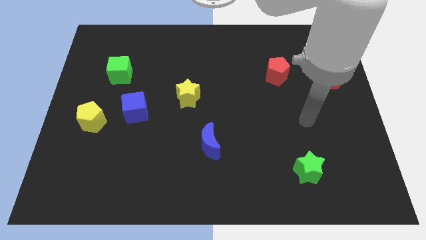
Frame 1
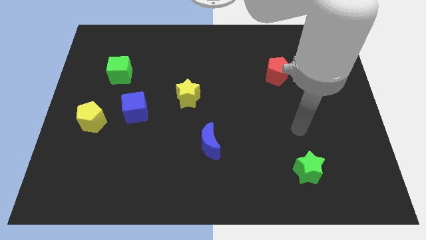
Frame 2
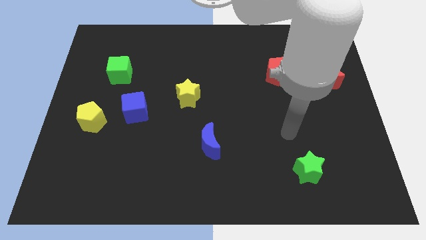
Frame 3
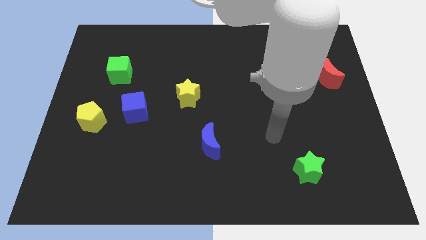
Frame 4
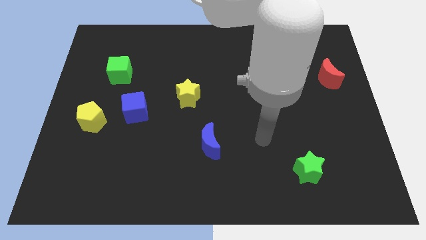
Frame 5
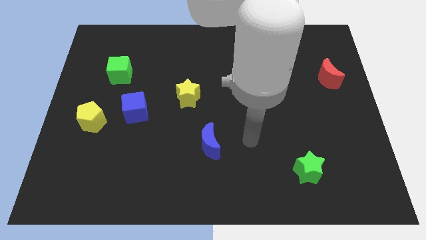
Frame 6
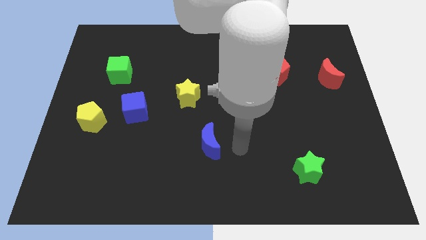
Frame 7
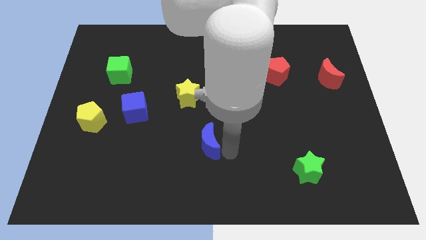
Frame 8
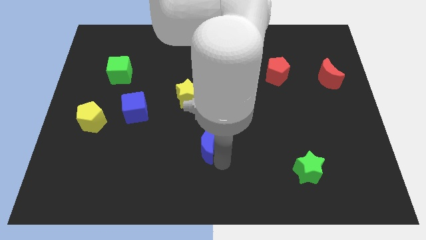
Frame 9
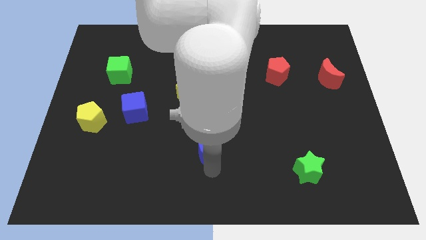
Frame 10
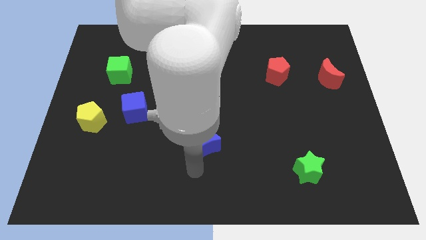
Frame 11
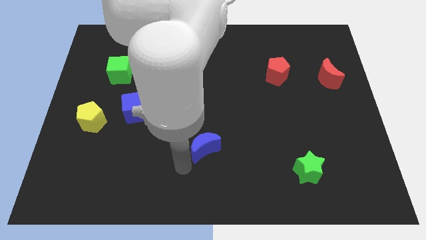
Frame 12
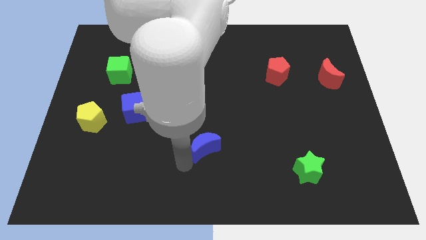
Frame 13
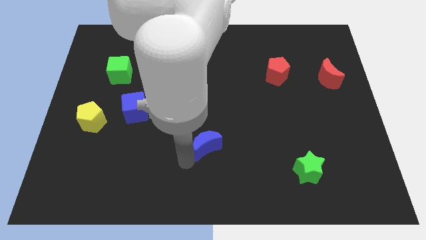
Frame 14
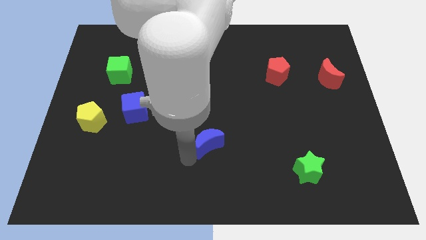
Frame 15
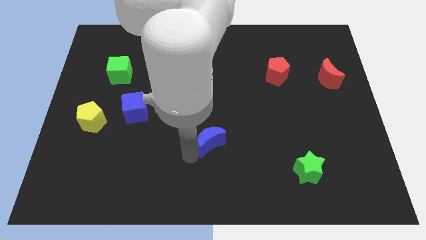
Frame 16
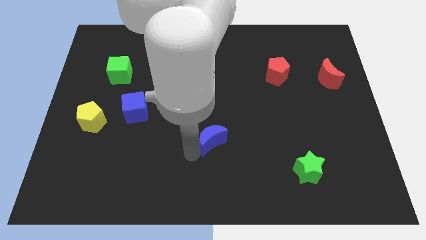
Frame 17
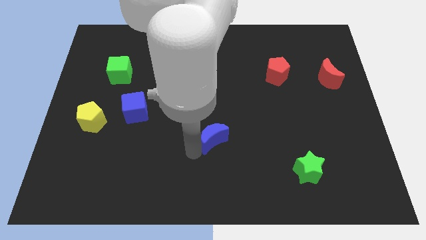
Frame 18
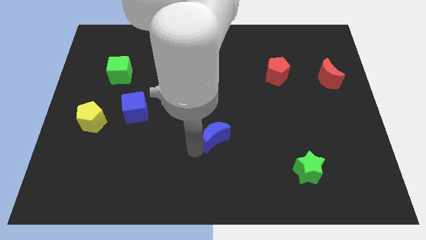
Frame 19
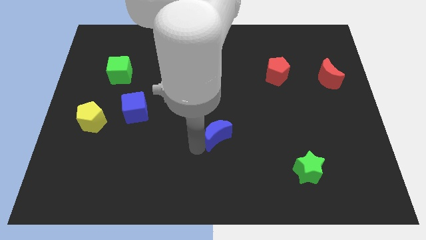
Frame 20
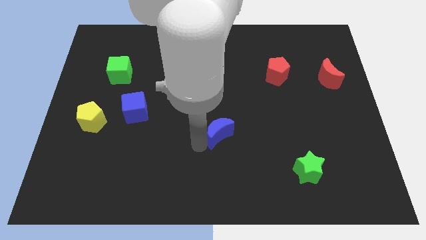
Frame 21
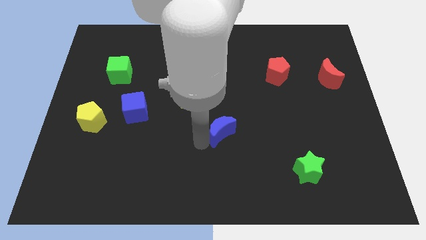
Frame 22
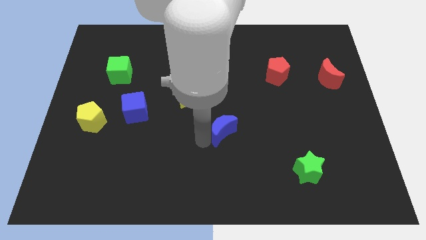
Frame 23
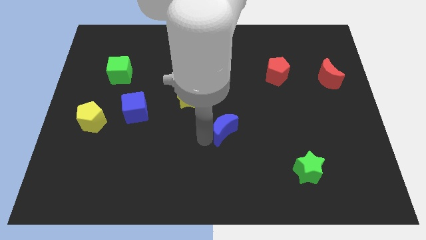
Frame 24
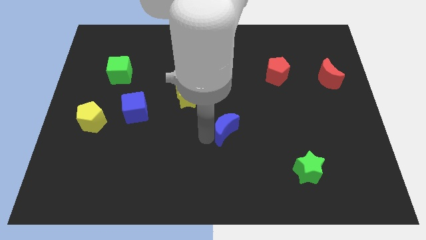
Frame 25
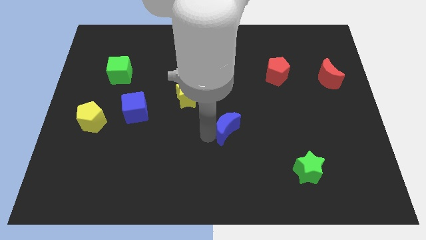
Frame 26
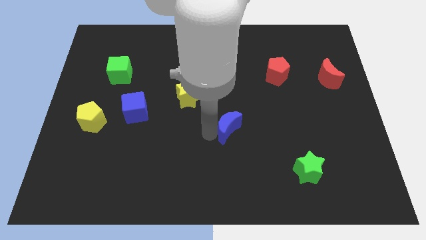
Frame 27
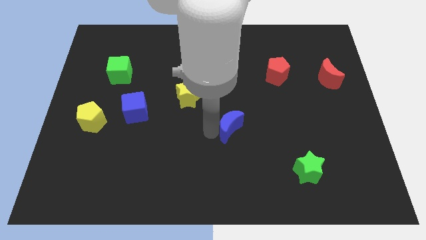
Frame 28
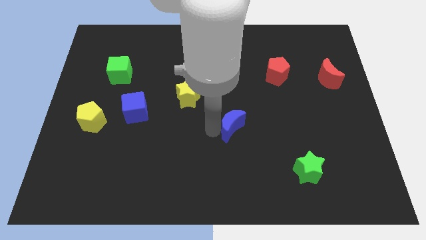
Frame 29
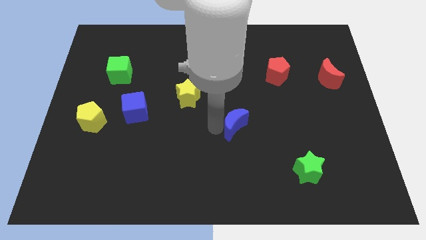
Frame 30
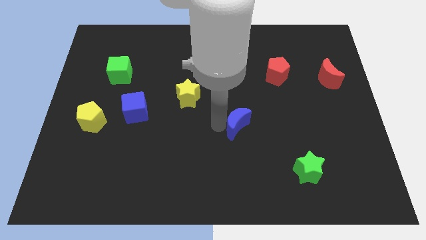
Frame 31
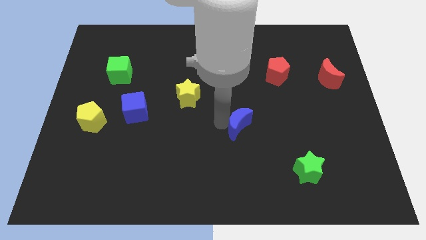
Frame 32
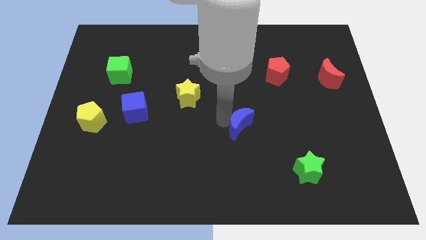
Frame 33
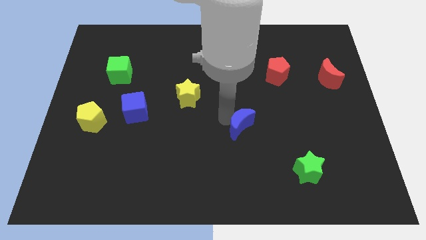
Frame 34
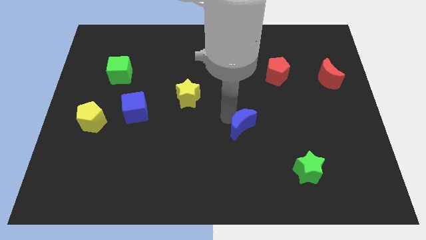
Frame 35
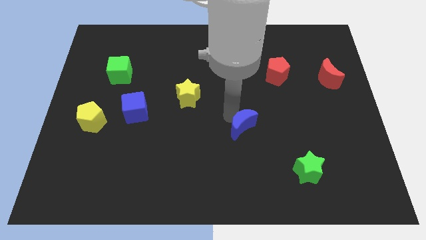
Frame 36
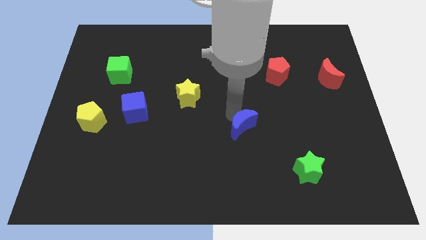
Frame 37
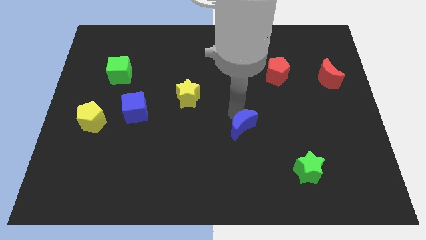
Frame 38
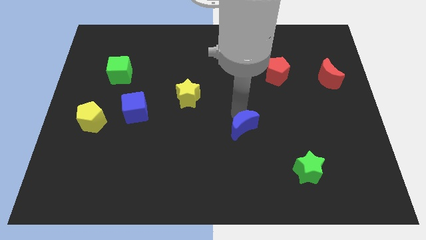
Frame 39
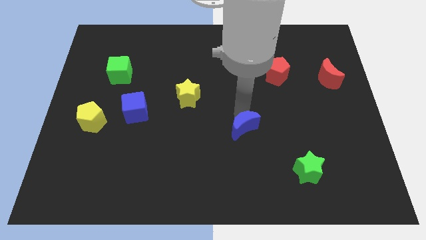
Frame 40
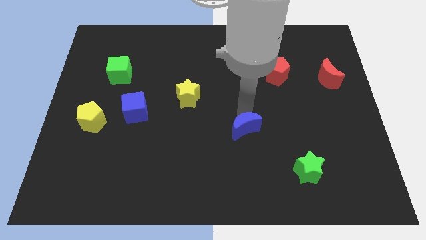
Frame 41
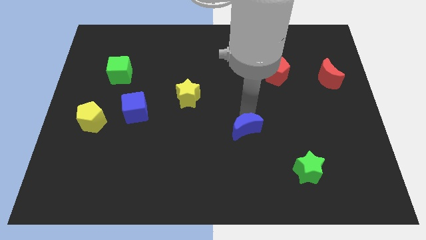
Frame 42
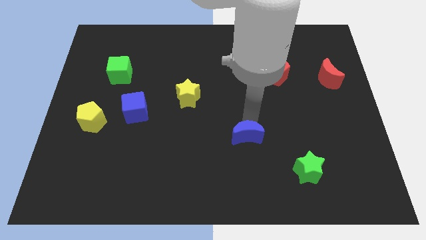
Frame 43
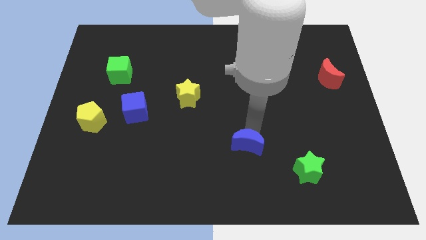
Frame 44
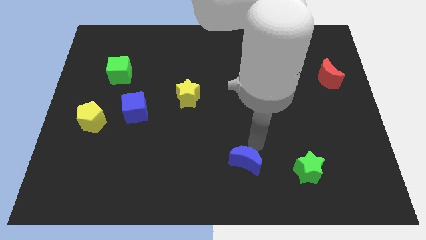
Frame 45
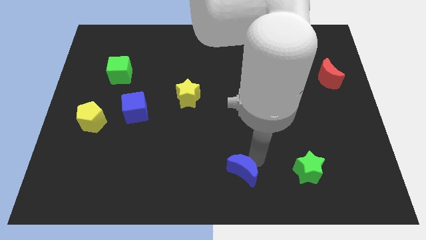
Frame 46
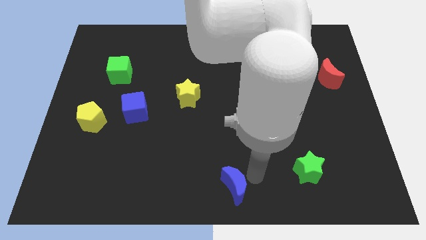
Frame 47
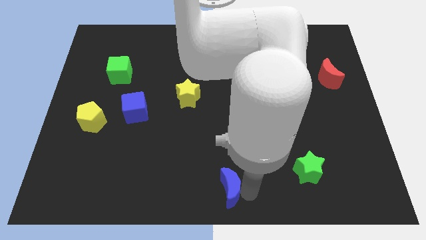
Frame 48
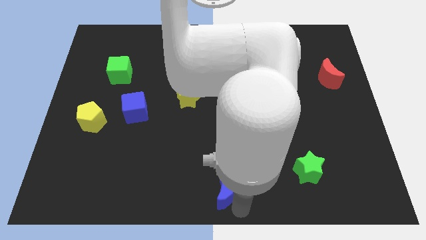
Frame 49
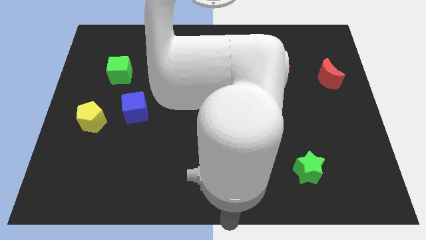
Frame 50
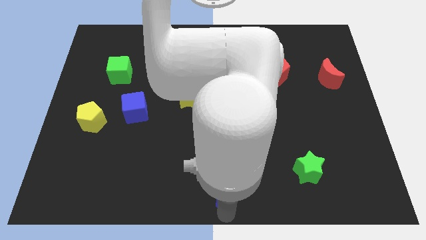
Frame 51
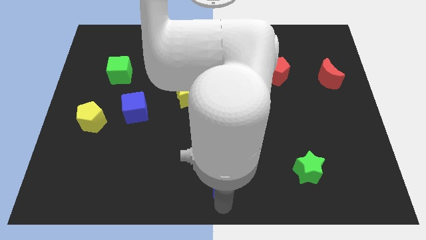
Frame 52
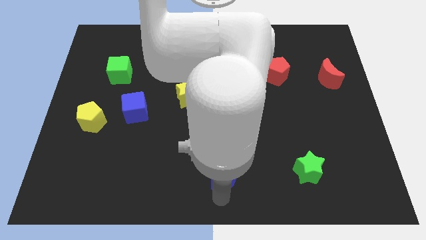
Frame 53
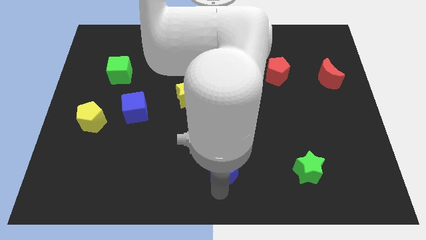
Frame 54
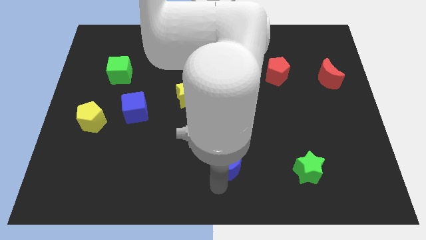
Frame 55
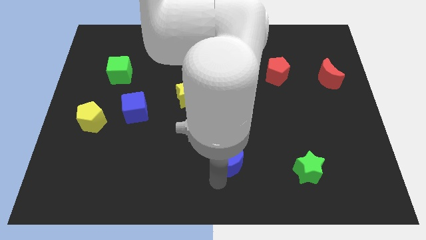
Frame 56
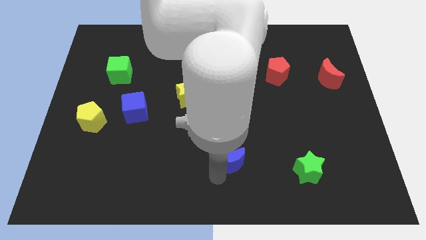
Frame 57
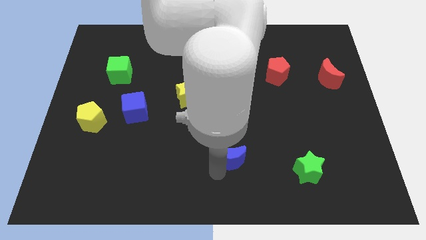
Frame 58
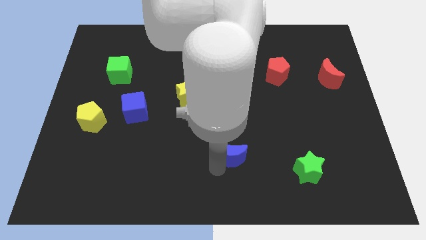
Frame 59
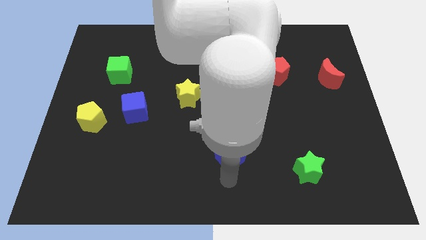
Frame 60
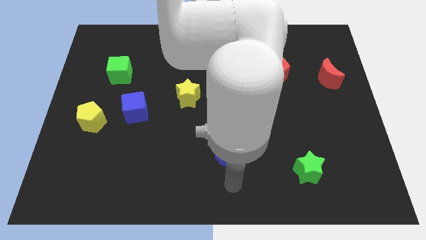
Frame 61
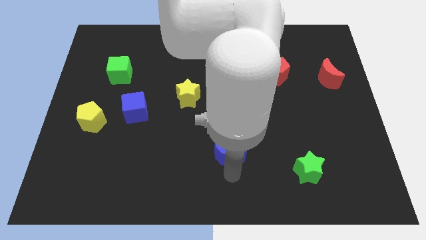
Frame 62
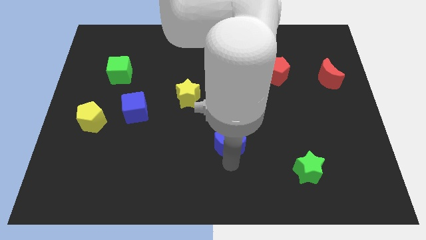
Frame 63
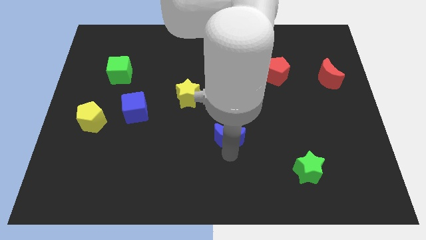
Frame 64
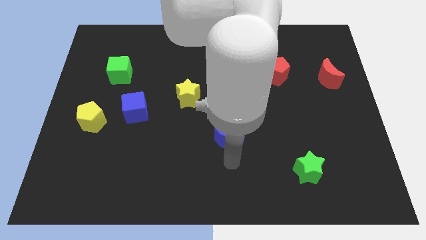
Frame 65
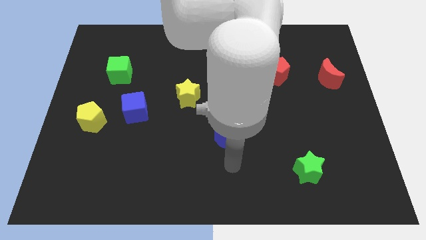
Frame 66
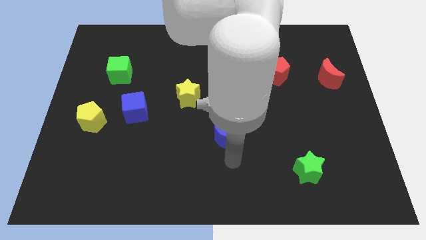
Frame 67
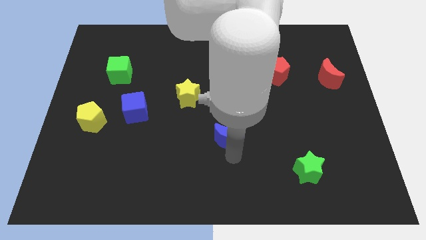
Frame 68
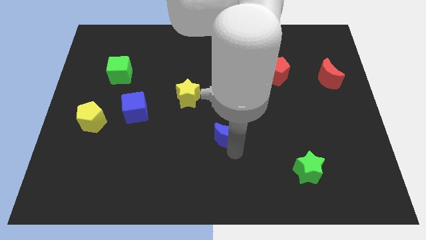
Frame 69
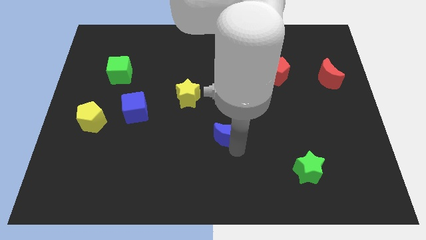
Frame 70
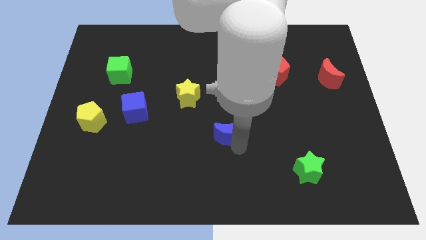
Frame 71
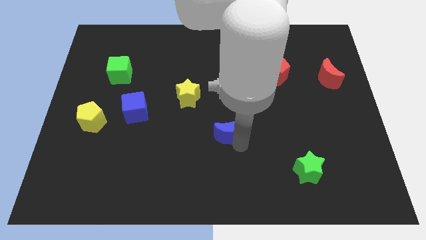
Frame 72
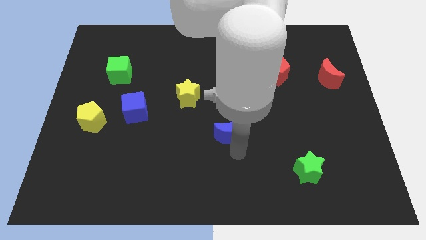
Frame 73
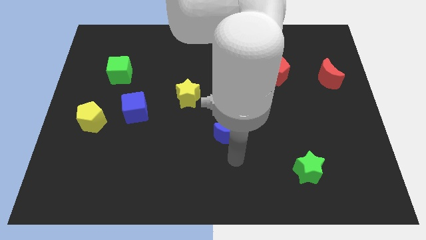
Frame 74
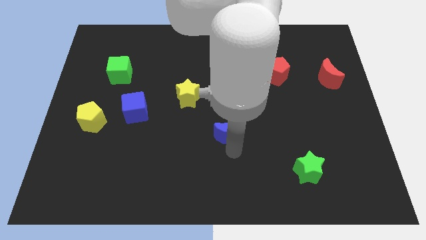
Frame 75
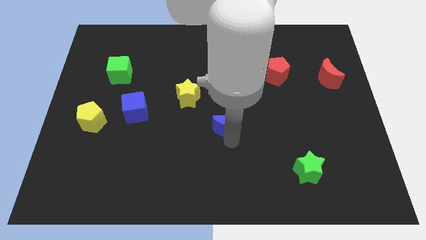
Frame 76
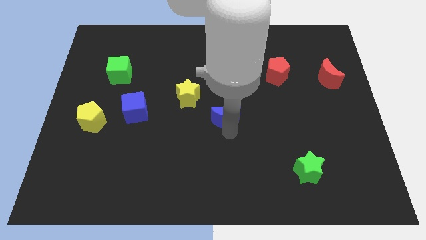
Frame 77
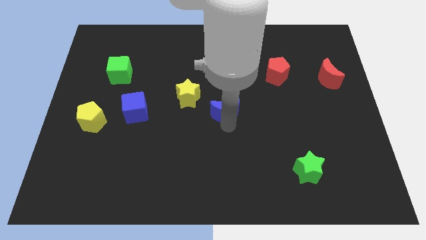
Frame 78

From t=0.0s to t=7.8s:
push the blue moon somewhat upwards

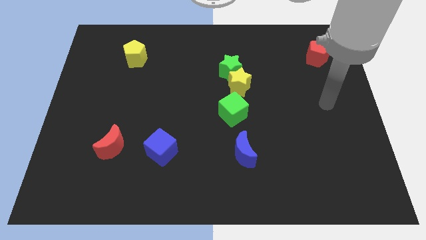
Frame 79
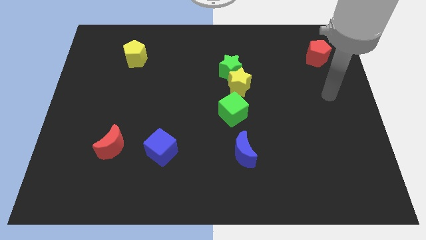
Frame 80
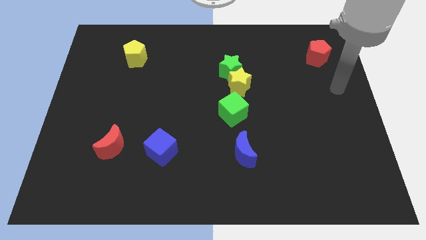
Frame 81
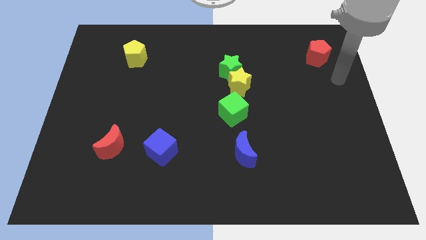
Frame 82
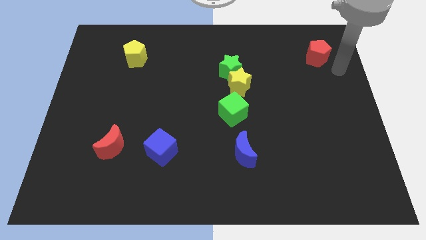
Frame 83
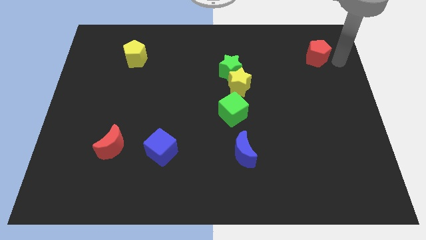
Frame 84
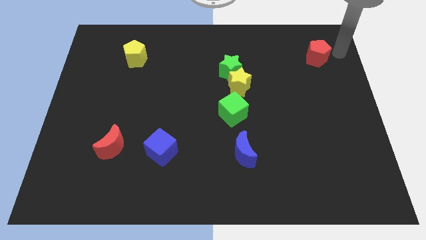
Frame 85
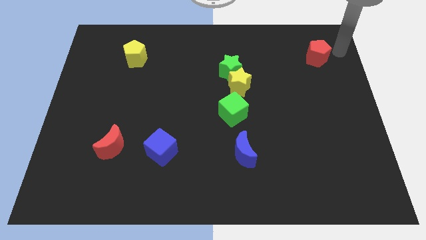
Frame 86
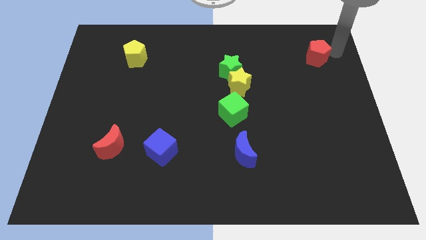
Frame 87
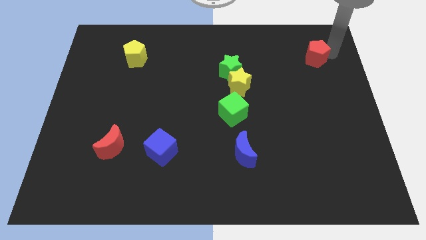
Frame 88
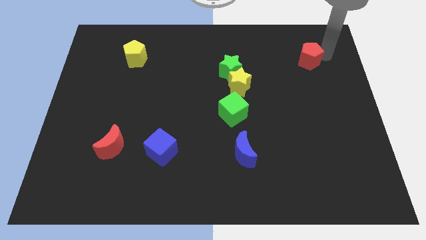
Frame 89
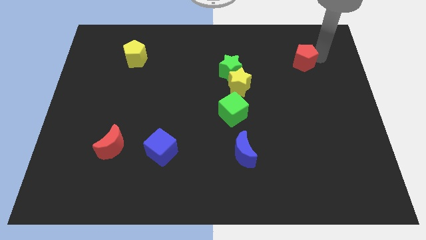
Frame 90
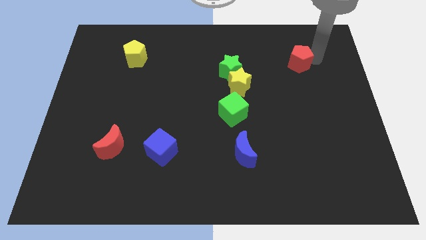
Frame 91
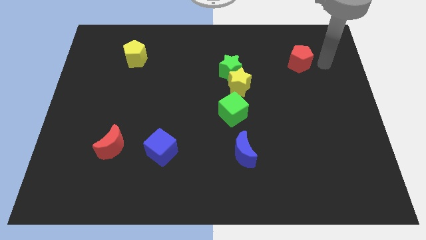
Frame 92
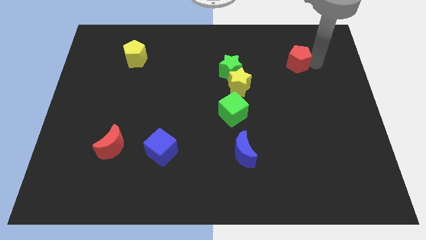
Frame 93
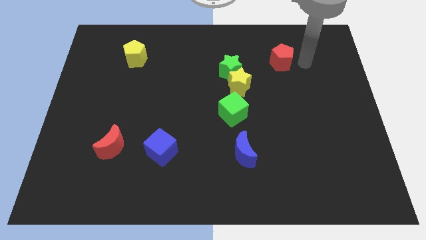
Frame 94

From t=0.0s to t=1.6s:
move the red pentagon left slightly
